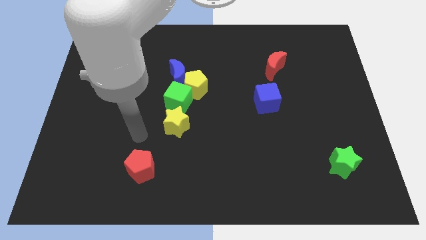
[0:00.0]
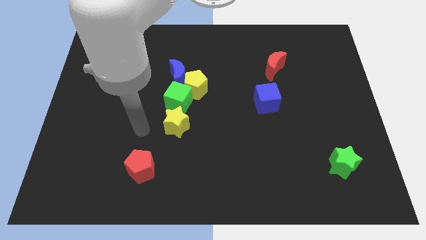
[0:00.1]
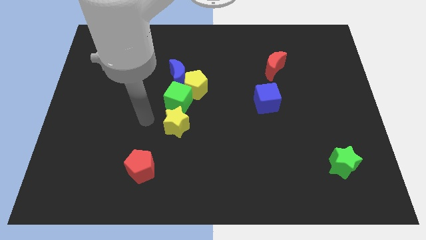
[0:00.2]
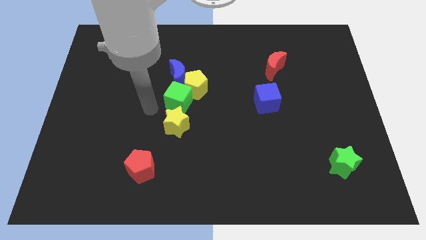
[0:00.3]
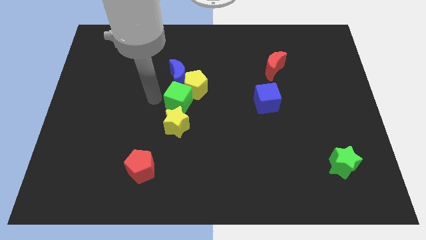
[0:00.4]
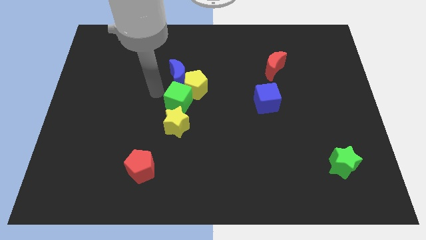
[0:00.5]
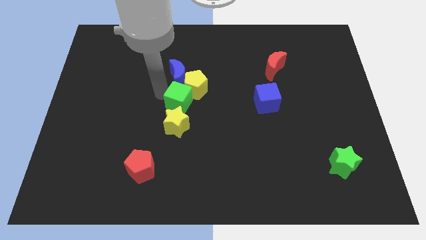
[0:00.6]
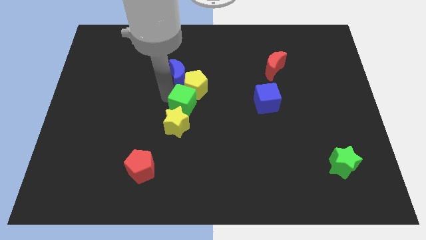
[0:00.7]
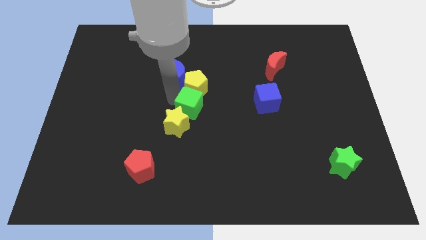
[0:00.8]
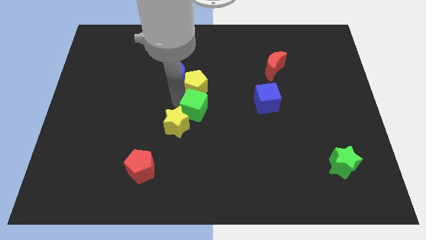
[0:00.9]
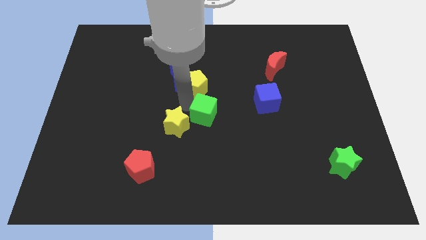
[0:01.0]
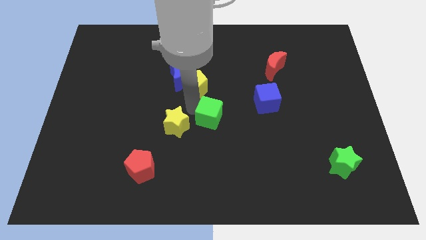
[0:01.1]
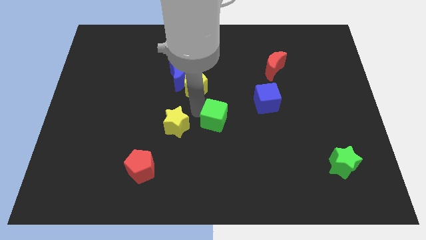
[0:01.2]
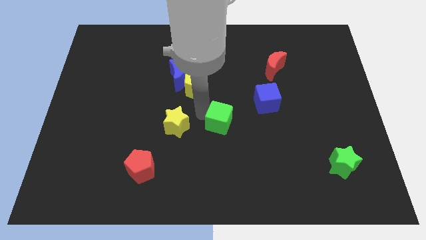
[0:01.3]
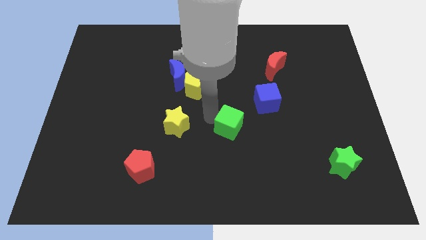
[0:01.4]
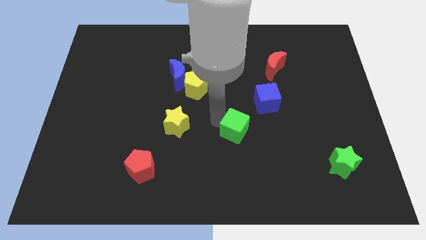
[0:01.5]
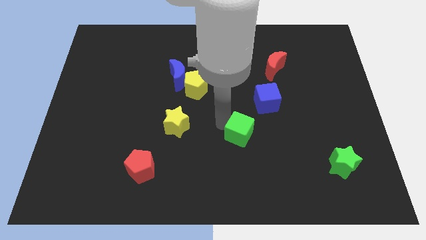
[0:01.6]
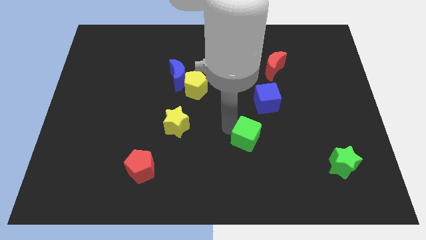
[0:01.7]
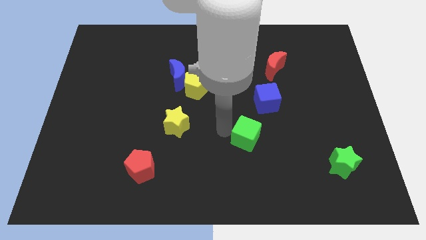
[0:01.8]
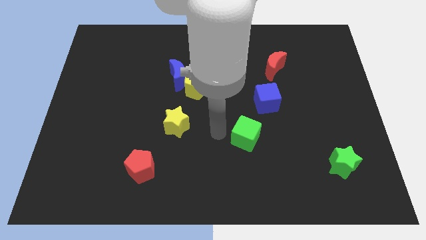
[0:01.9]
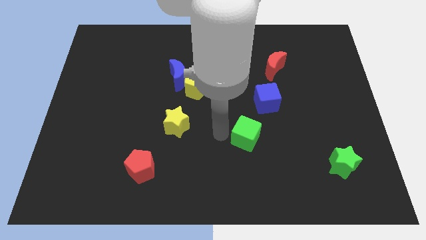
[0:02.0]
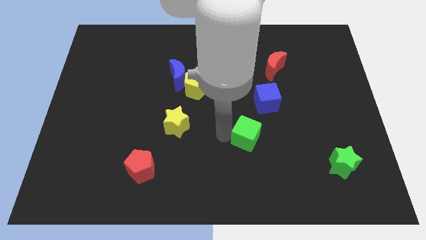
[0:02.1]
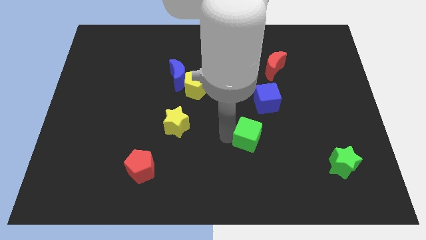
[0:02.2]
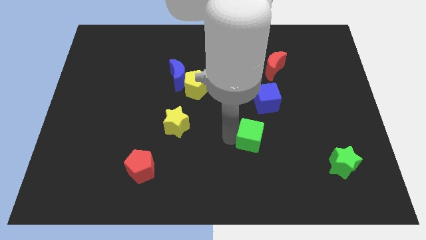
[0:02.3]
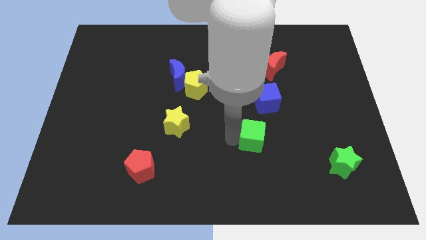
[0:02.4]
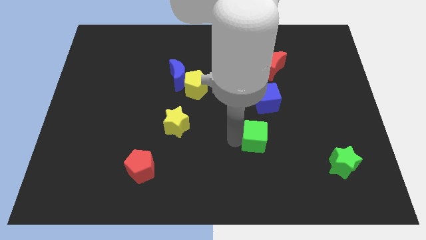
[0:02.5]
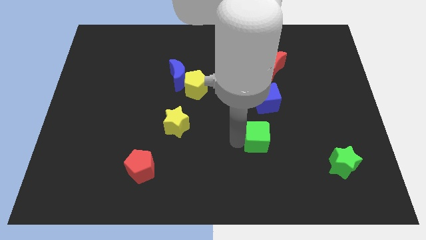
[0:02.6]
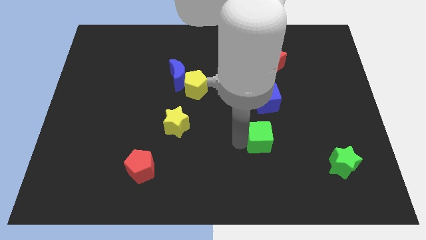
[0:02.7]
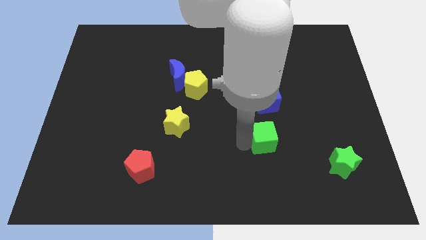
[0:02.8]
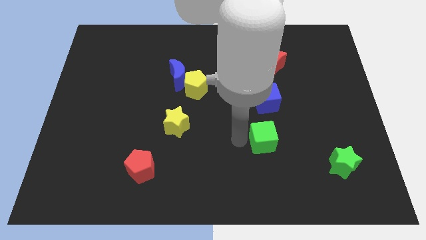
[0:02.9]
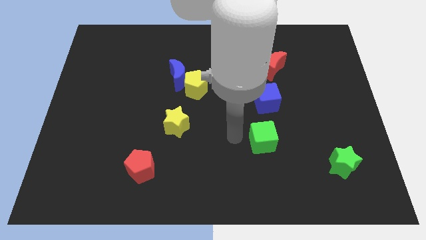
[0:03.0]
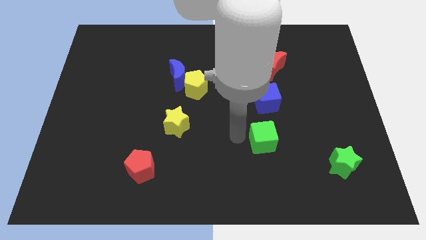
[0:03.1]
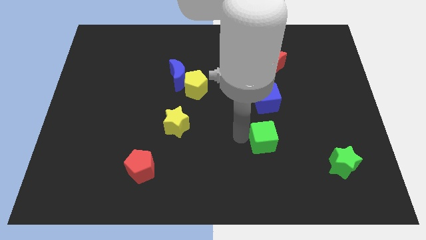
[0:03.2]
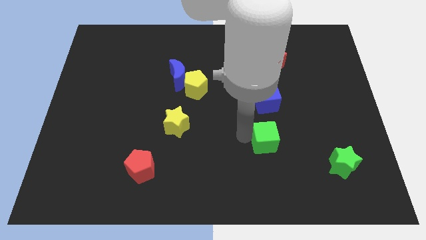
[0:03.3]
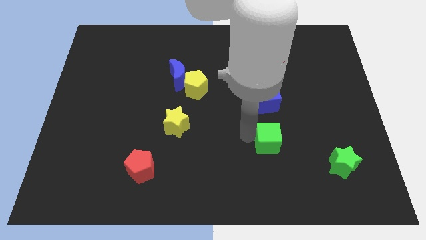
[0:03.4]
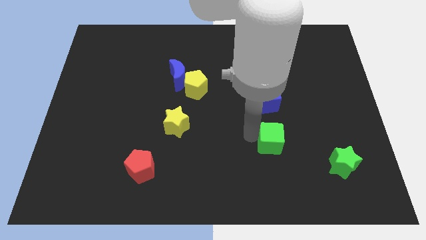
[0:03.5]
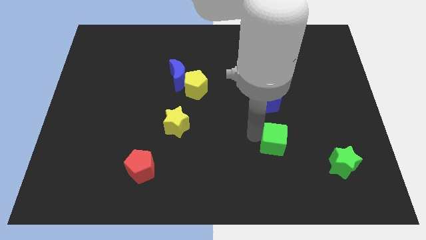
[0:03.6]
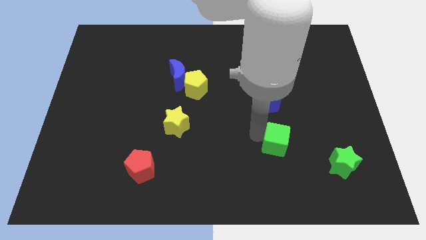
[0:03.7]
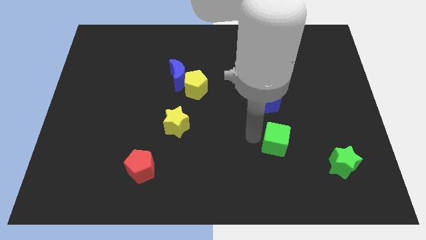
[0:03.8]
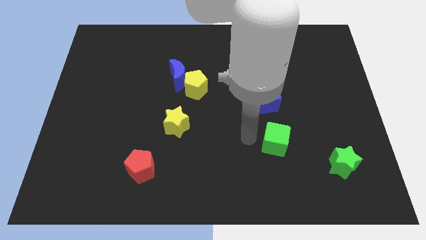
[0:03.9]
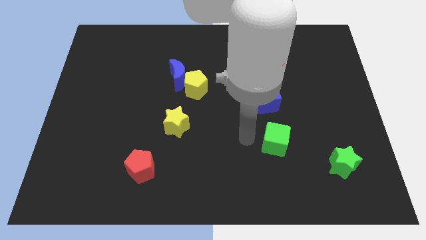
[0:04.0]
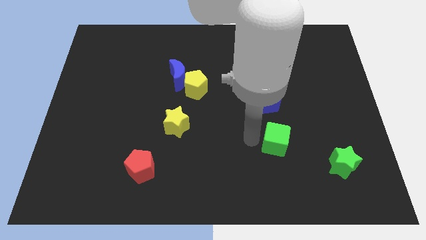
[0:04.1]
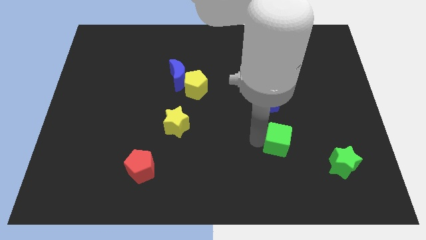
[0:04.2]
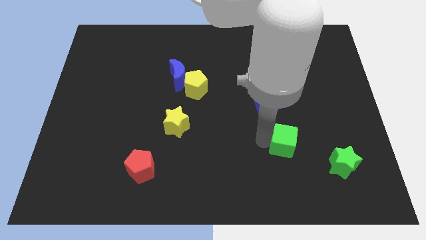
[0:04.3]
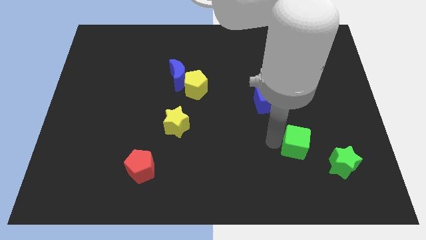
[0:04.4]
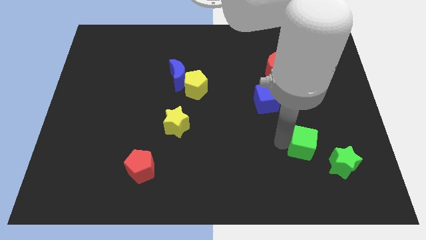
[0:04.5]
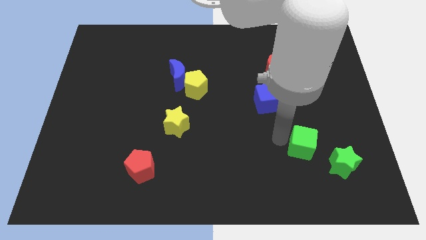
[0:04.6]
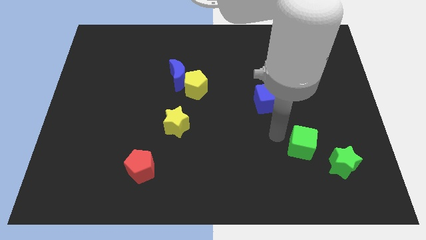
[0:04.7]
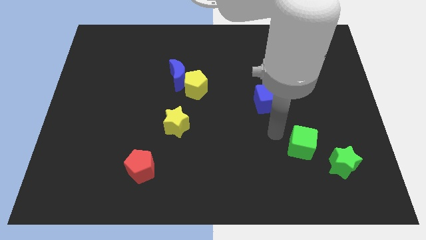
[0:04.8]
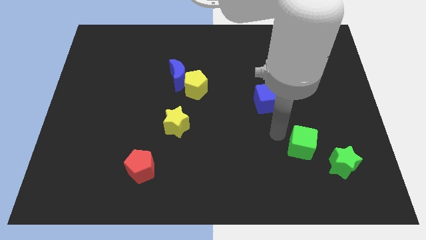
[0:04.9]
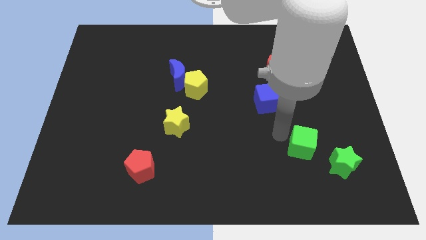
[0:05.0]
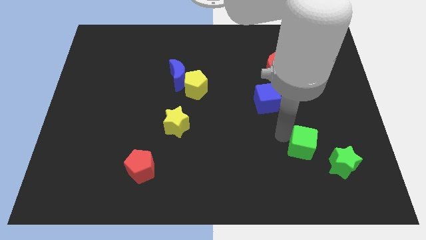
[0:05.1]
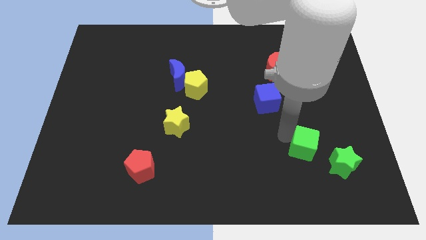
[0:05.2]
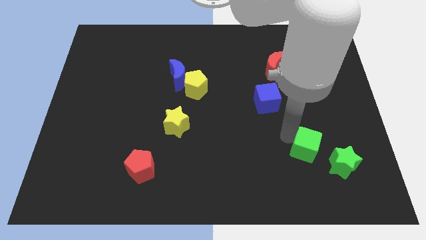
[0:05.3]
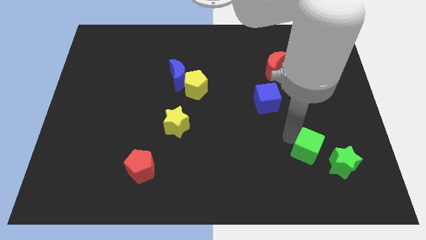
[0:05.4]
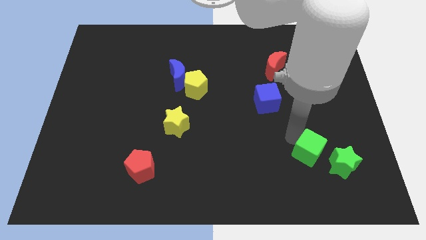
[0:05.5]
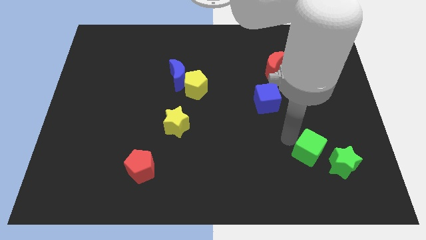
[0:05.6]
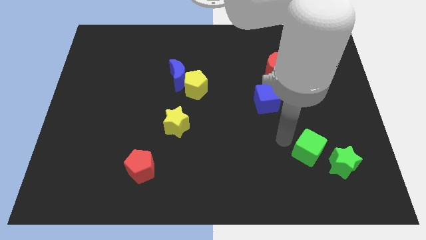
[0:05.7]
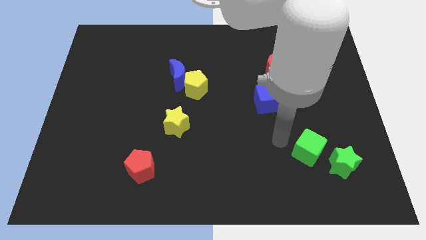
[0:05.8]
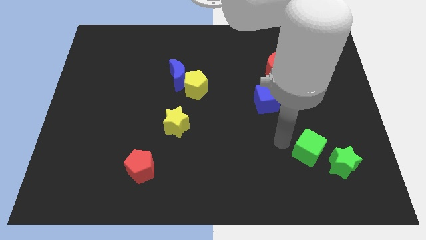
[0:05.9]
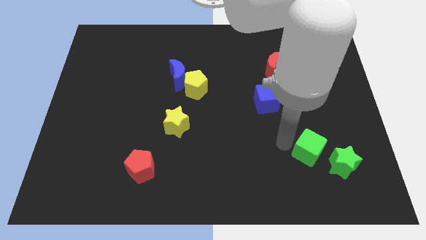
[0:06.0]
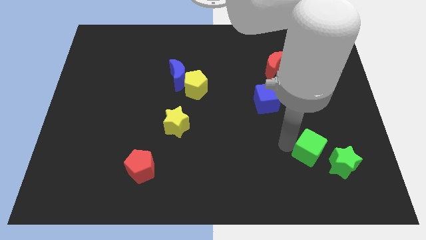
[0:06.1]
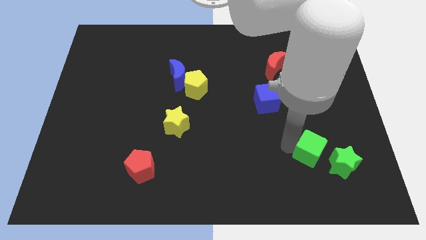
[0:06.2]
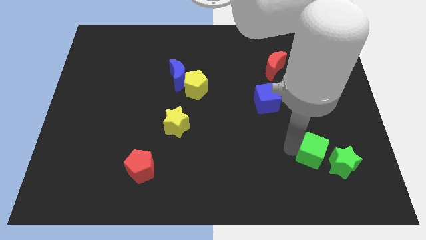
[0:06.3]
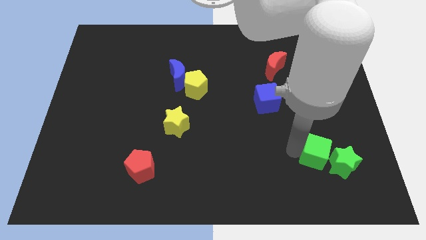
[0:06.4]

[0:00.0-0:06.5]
push the green cube close to the green star

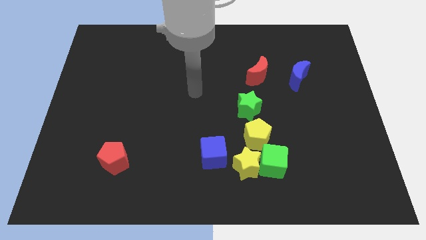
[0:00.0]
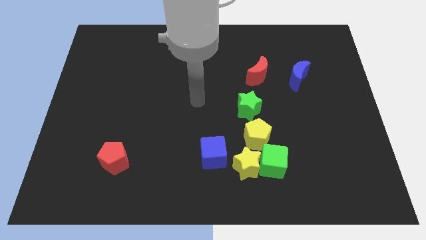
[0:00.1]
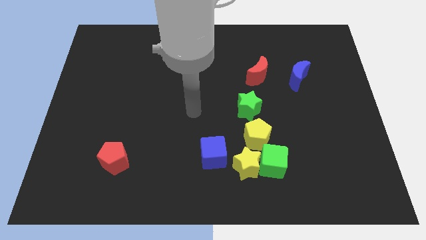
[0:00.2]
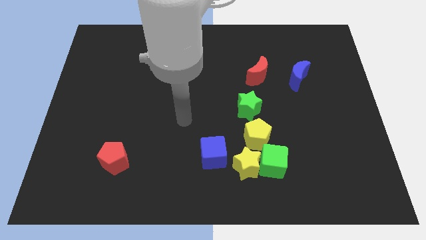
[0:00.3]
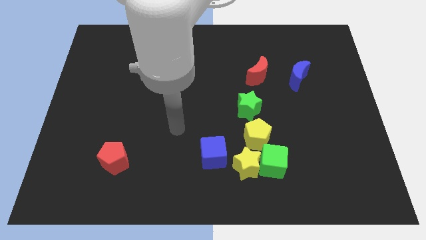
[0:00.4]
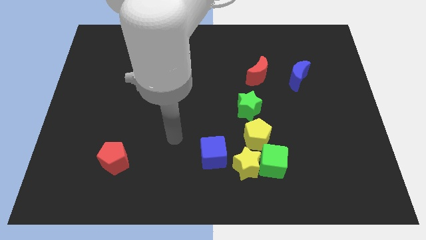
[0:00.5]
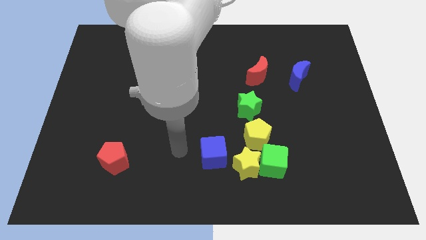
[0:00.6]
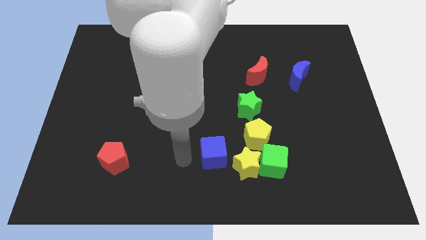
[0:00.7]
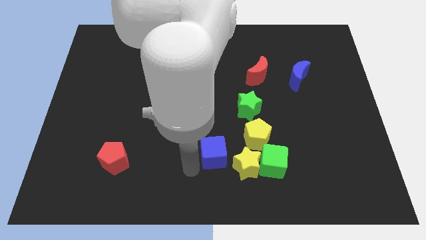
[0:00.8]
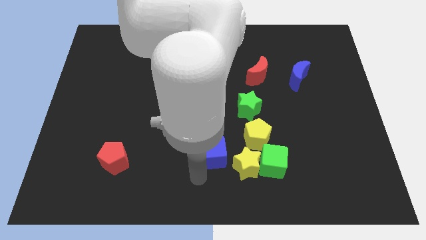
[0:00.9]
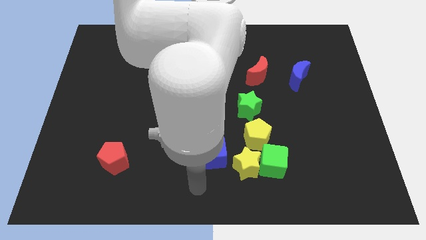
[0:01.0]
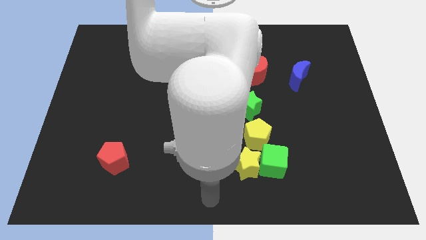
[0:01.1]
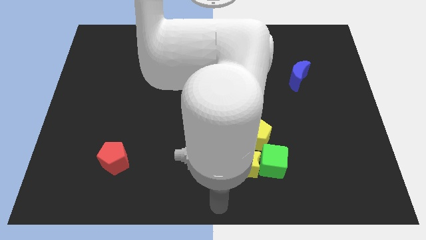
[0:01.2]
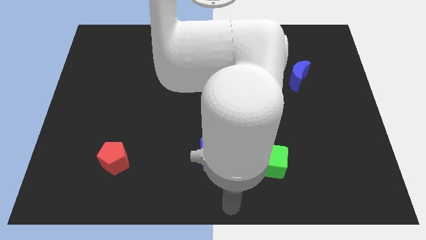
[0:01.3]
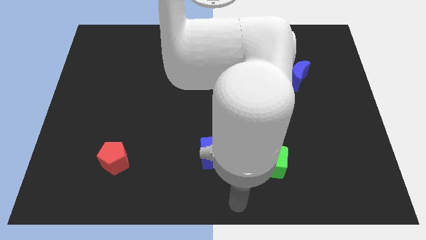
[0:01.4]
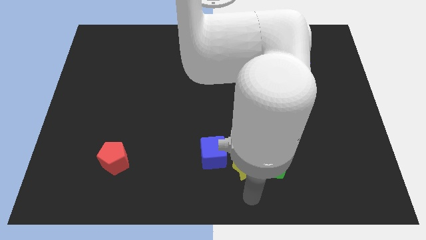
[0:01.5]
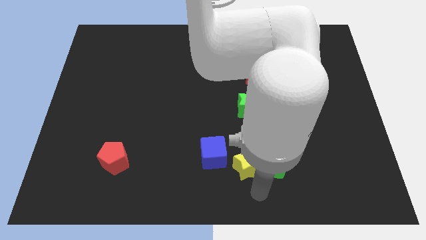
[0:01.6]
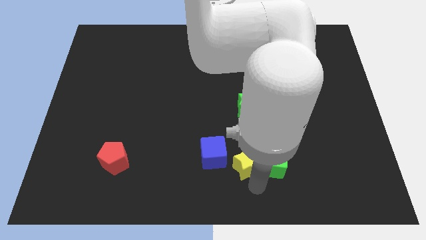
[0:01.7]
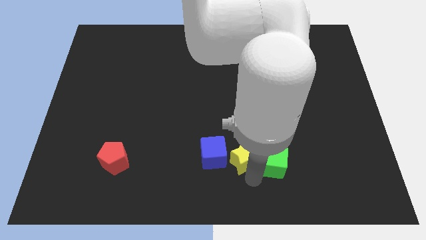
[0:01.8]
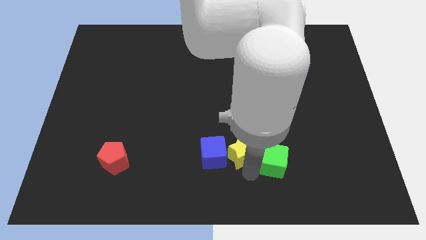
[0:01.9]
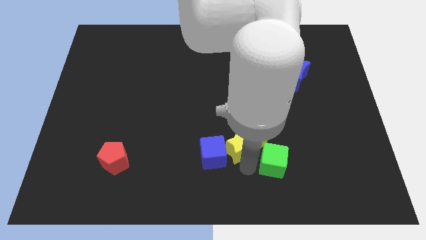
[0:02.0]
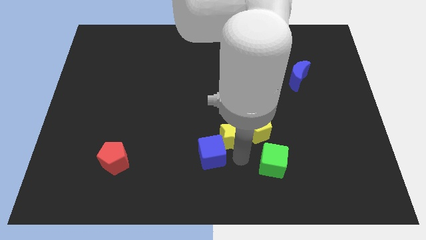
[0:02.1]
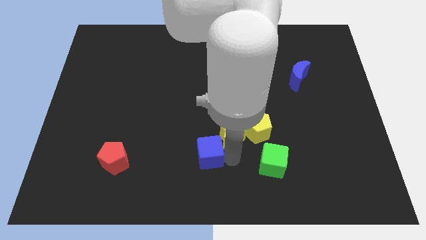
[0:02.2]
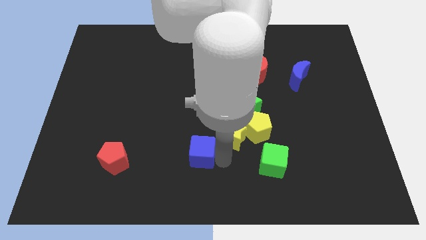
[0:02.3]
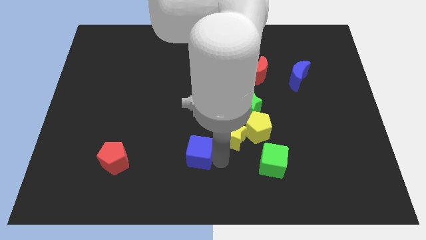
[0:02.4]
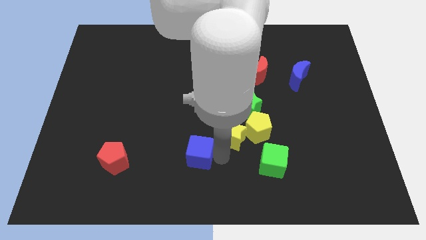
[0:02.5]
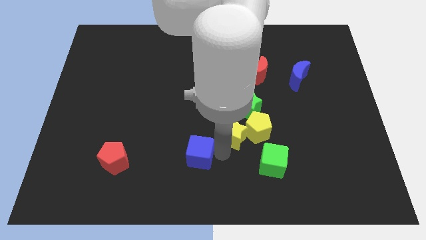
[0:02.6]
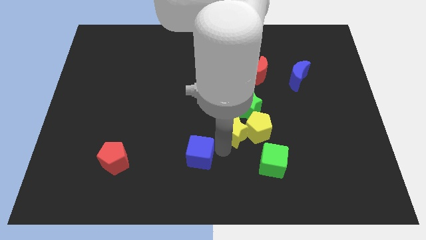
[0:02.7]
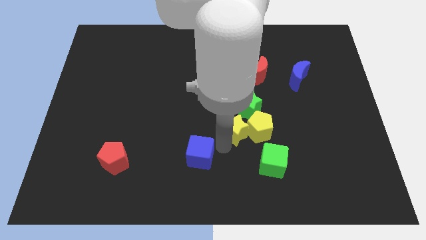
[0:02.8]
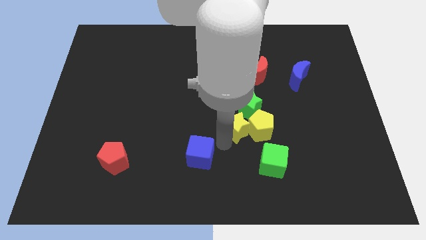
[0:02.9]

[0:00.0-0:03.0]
move the yellow star to the green star
